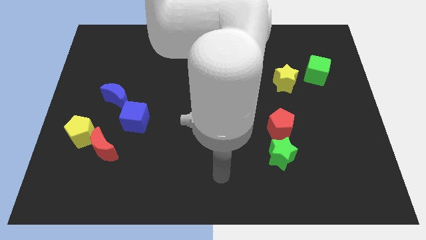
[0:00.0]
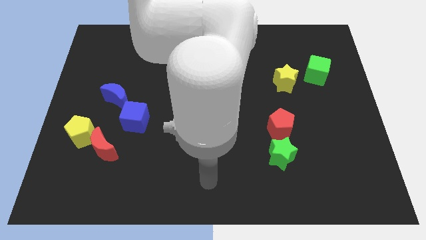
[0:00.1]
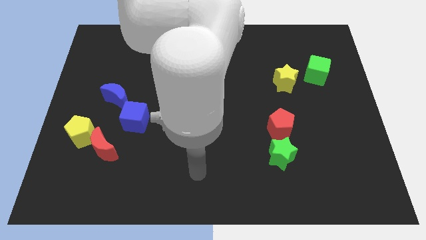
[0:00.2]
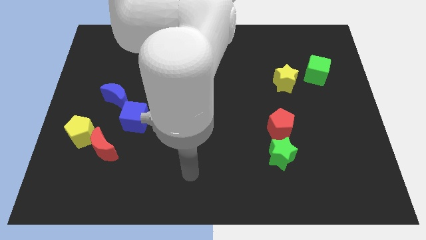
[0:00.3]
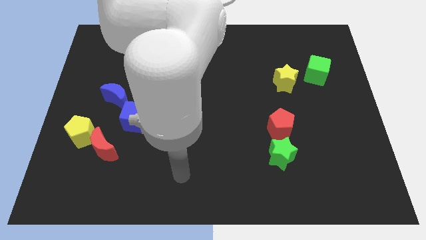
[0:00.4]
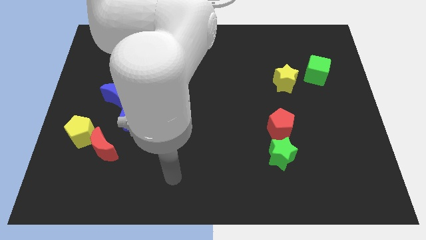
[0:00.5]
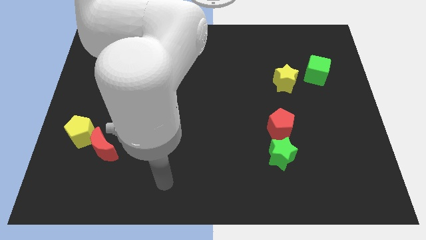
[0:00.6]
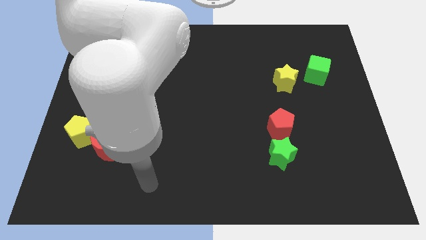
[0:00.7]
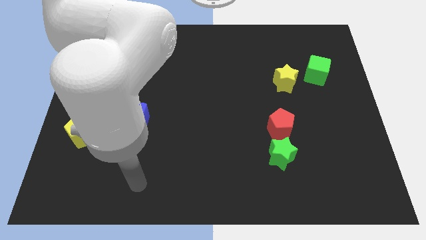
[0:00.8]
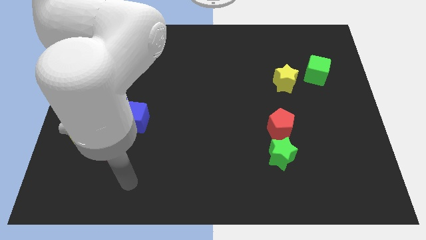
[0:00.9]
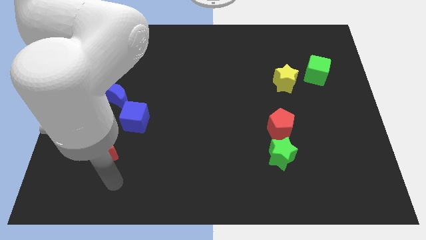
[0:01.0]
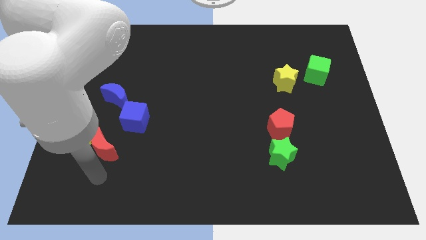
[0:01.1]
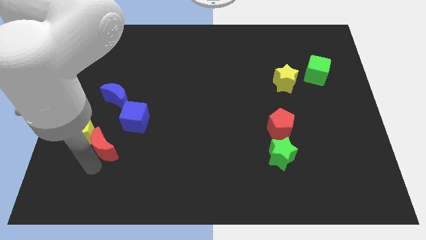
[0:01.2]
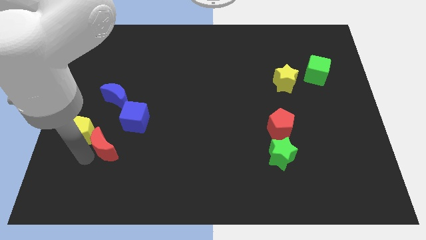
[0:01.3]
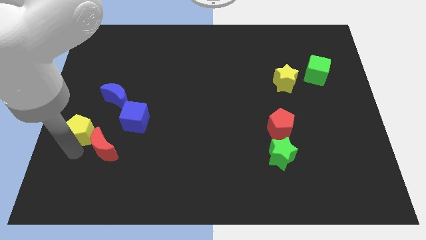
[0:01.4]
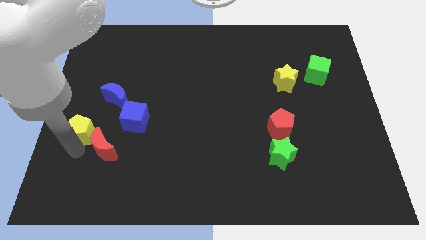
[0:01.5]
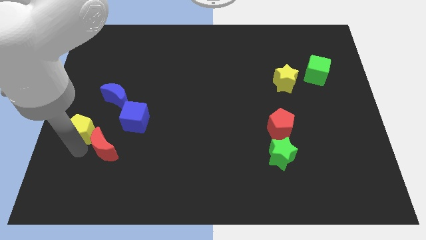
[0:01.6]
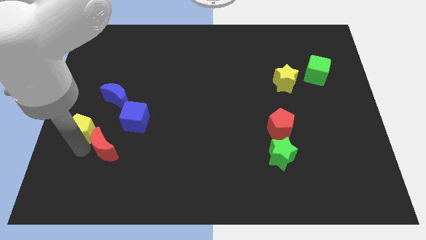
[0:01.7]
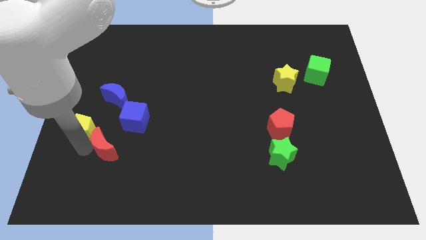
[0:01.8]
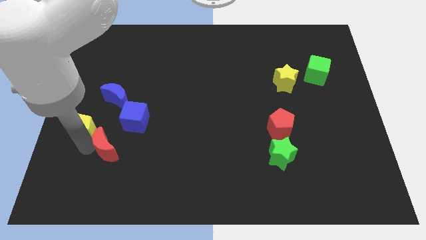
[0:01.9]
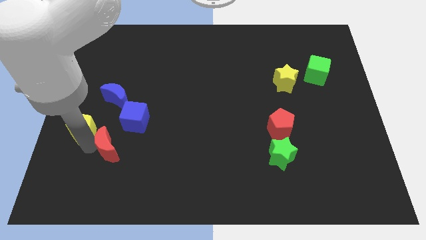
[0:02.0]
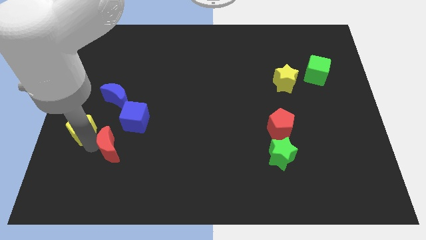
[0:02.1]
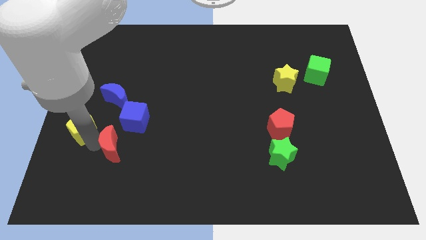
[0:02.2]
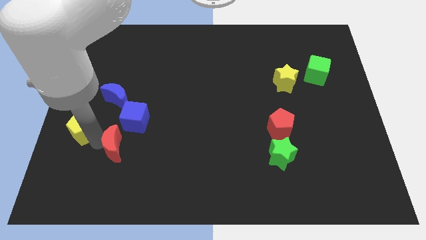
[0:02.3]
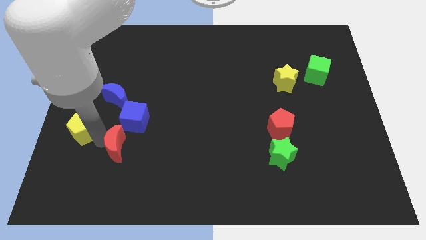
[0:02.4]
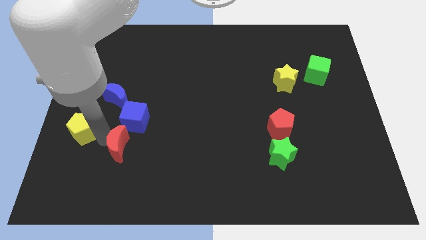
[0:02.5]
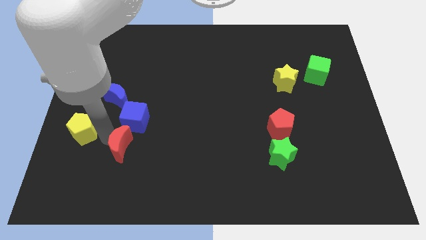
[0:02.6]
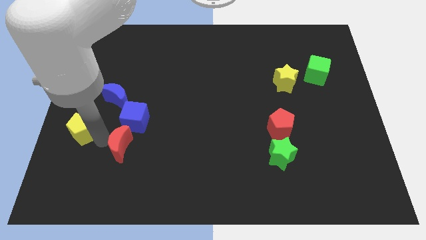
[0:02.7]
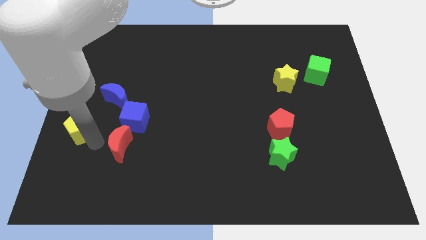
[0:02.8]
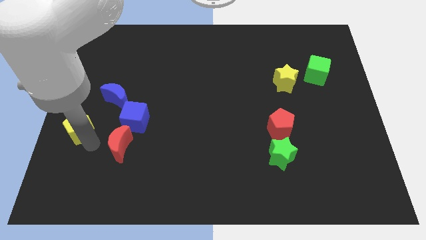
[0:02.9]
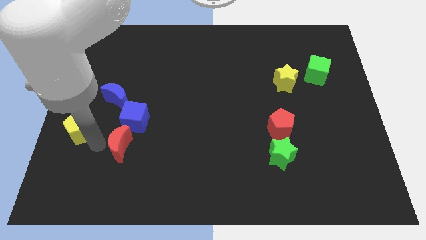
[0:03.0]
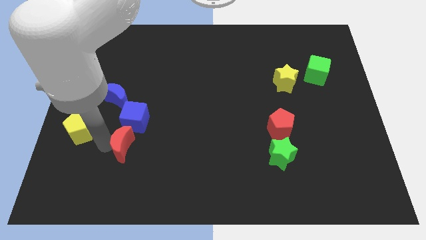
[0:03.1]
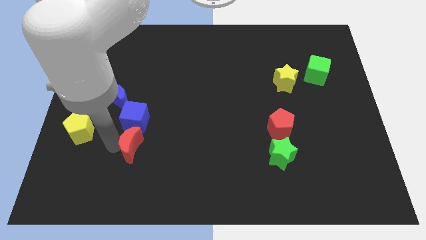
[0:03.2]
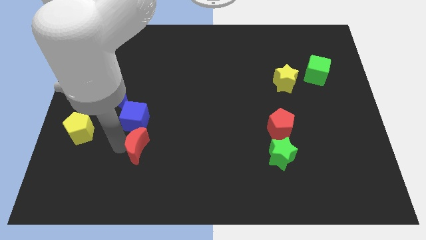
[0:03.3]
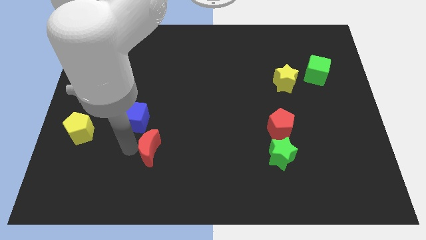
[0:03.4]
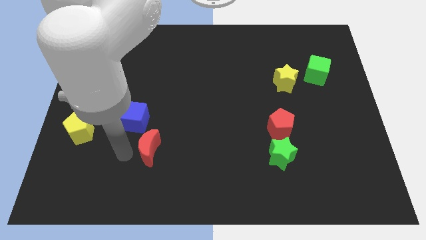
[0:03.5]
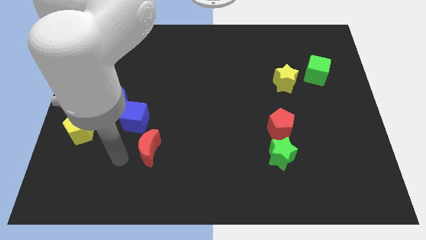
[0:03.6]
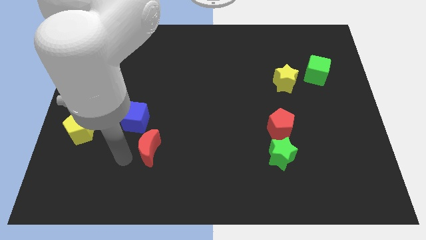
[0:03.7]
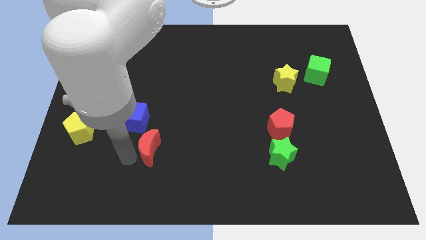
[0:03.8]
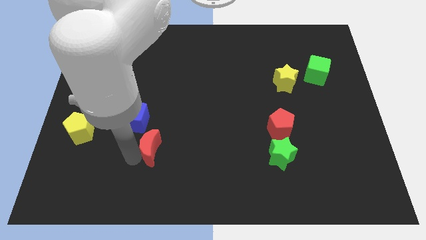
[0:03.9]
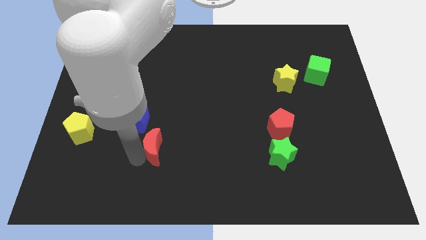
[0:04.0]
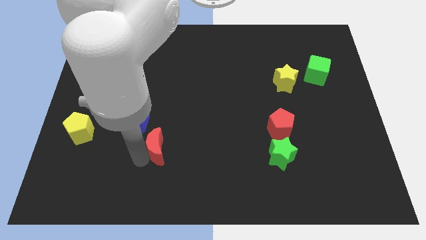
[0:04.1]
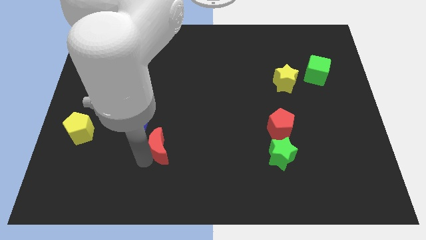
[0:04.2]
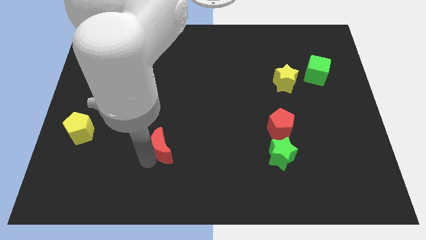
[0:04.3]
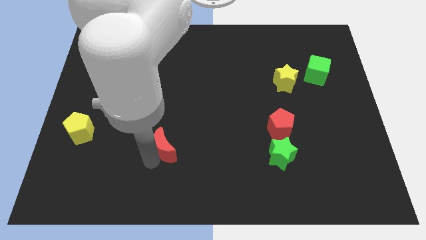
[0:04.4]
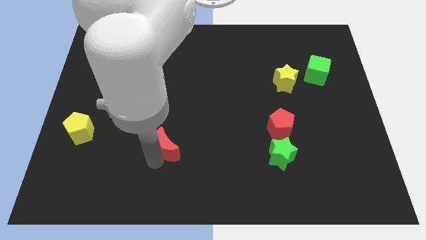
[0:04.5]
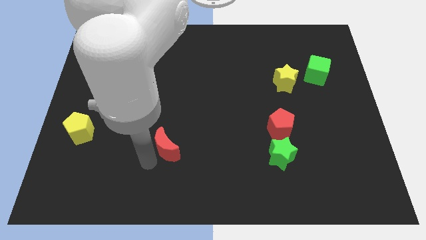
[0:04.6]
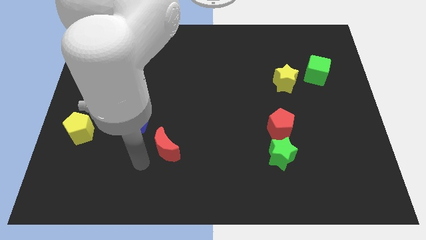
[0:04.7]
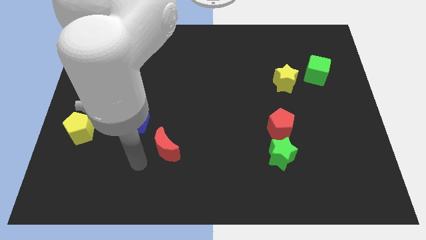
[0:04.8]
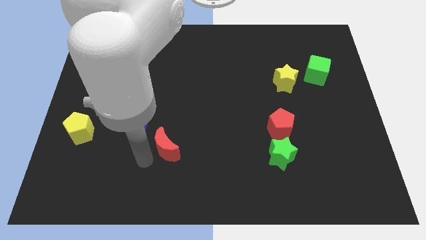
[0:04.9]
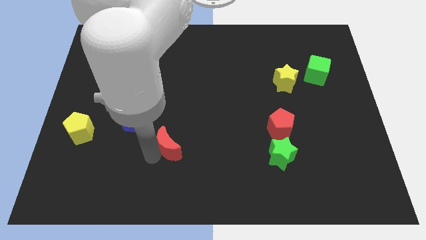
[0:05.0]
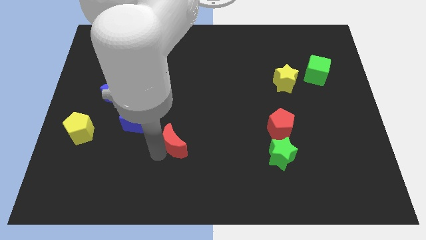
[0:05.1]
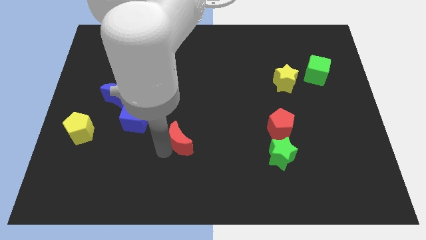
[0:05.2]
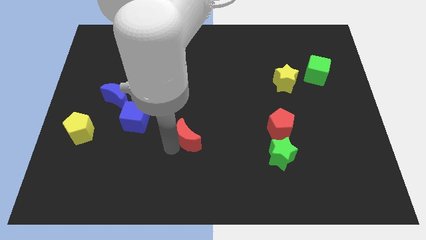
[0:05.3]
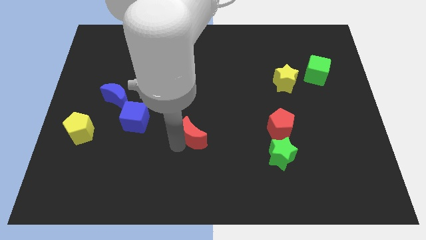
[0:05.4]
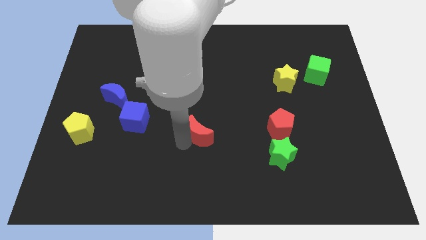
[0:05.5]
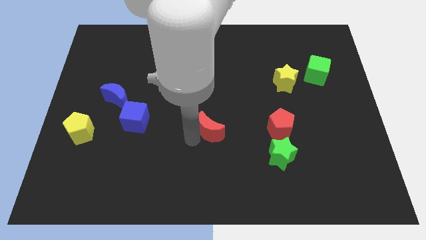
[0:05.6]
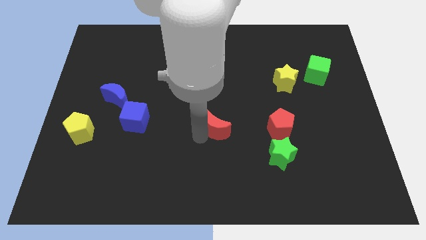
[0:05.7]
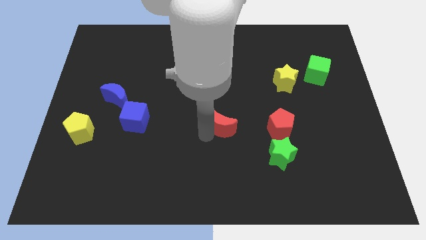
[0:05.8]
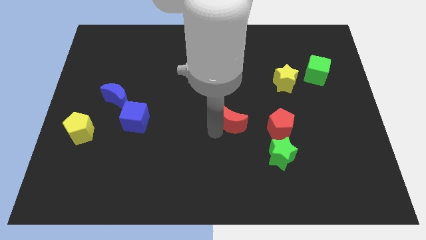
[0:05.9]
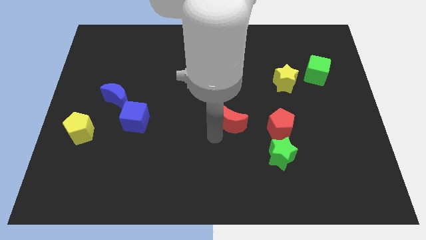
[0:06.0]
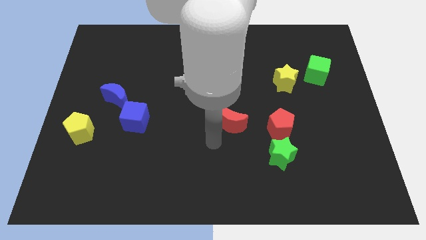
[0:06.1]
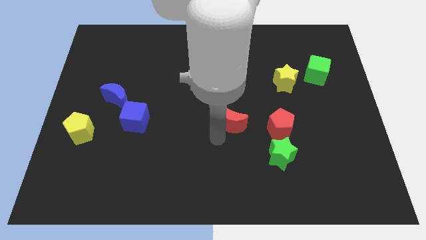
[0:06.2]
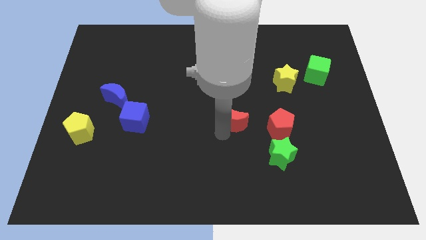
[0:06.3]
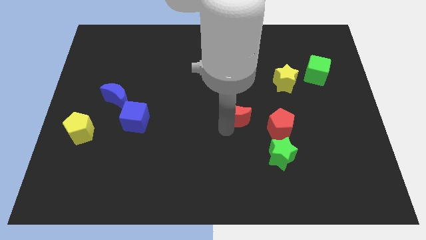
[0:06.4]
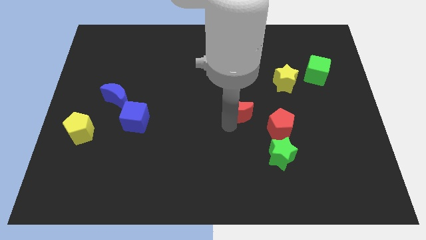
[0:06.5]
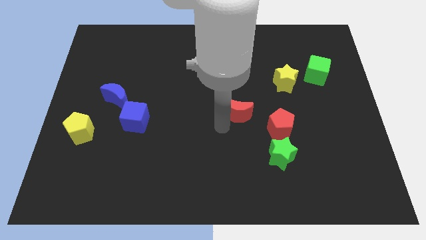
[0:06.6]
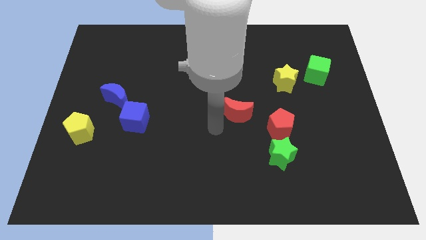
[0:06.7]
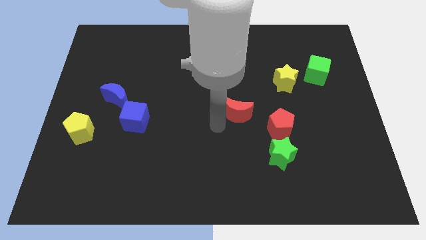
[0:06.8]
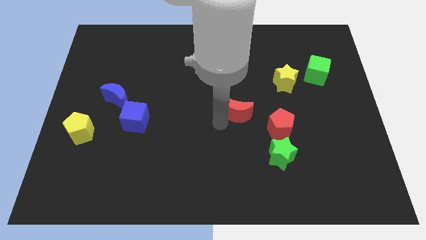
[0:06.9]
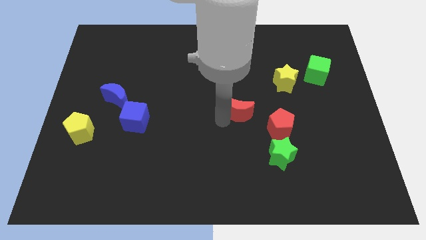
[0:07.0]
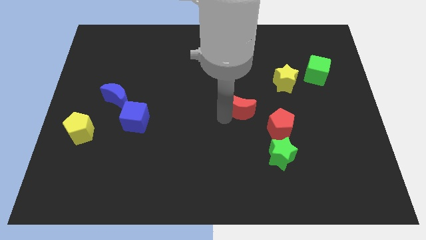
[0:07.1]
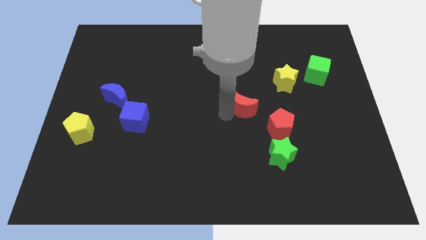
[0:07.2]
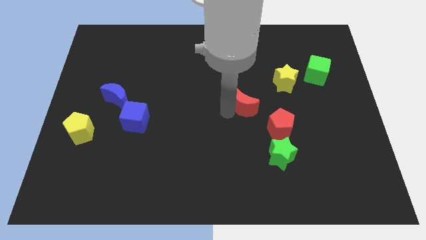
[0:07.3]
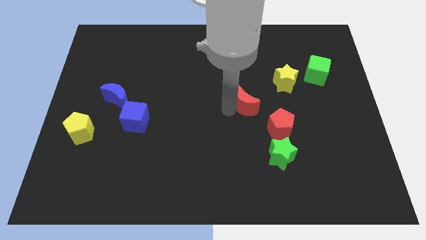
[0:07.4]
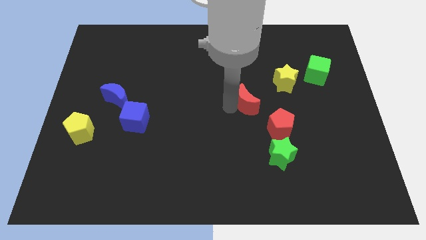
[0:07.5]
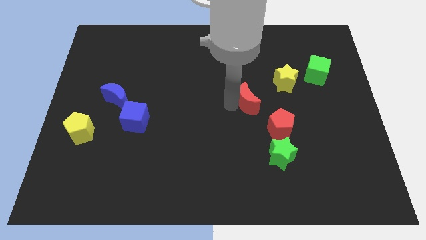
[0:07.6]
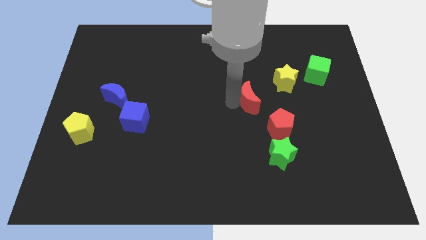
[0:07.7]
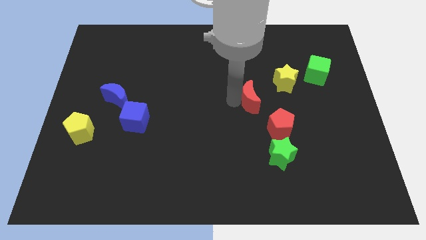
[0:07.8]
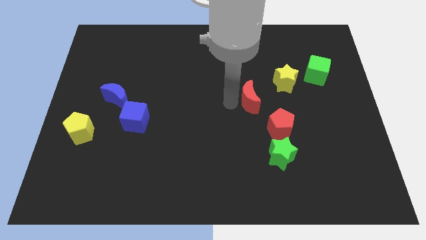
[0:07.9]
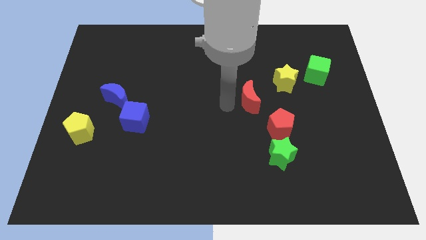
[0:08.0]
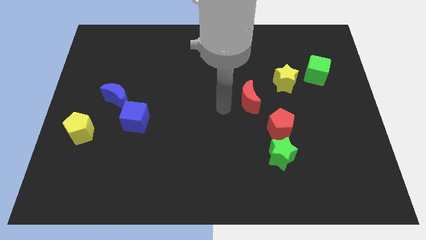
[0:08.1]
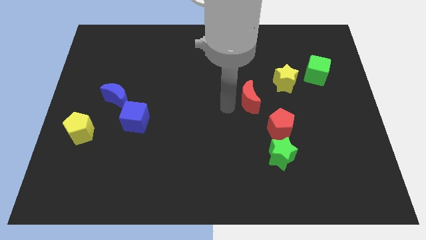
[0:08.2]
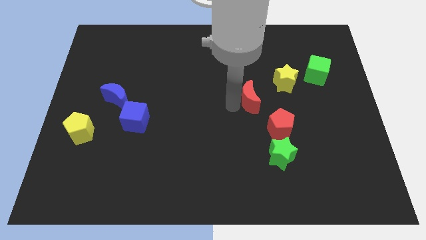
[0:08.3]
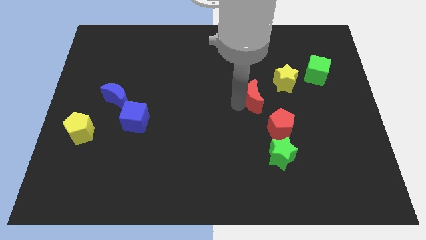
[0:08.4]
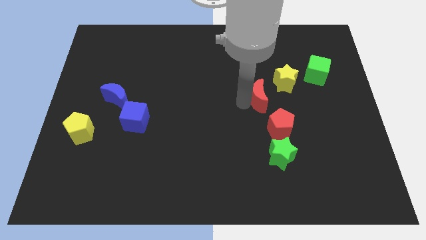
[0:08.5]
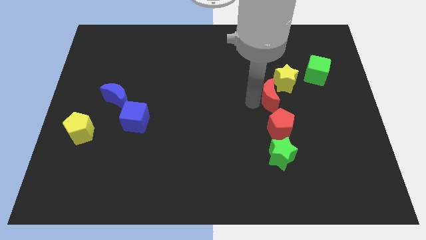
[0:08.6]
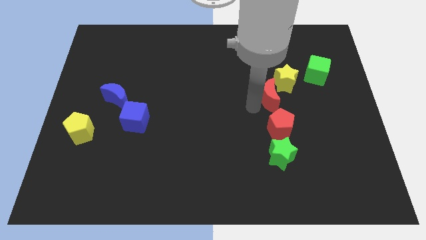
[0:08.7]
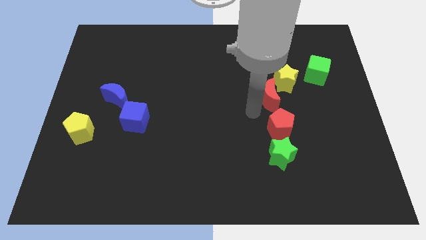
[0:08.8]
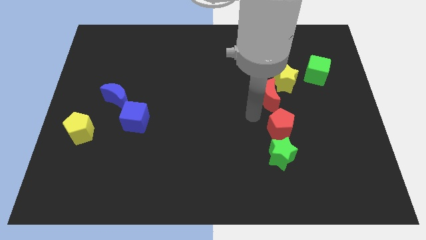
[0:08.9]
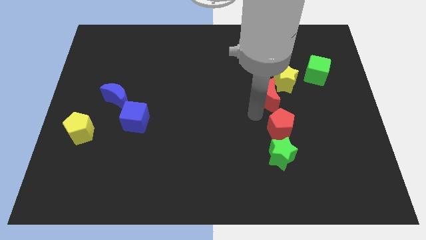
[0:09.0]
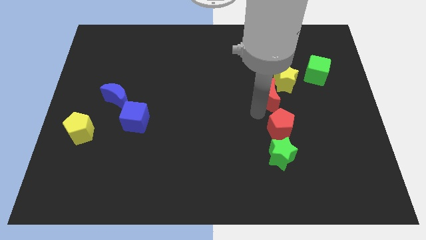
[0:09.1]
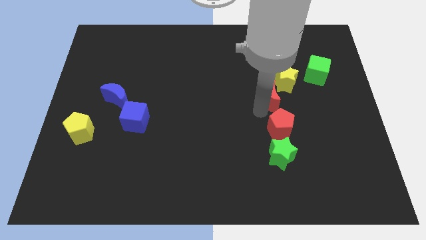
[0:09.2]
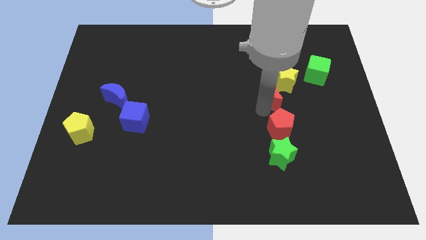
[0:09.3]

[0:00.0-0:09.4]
move the red moon to the yellow star
